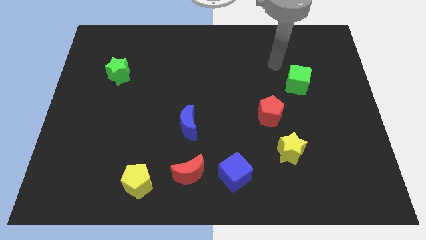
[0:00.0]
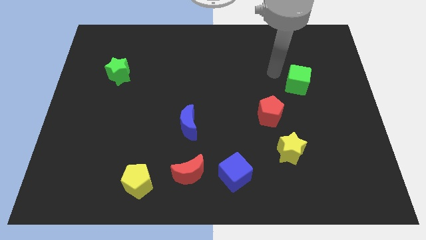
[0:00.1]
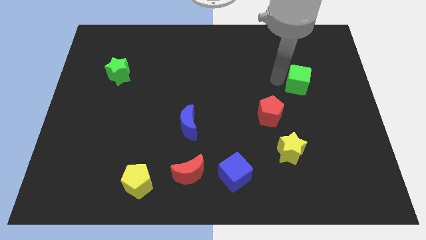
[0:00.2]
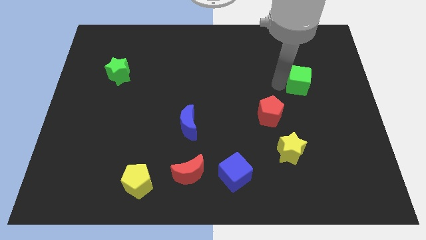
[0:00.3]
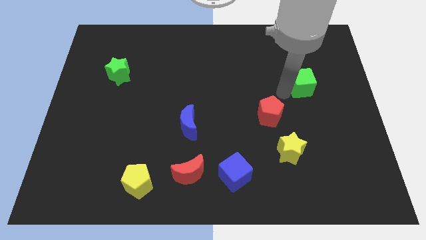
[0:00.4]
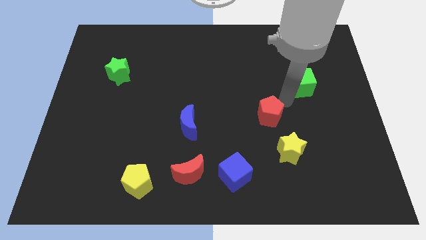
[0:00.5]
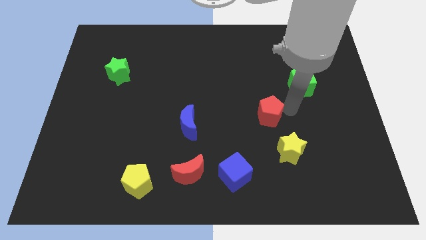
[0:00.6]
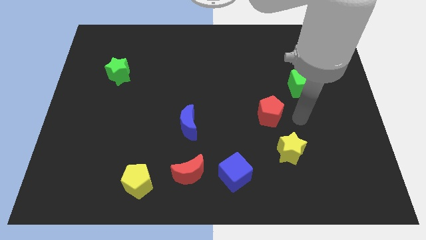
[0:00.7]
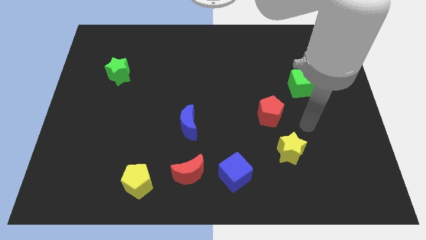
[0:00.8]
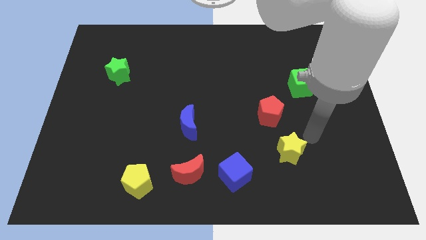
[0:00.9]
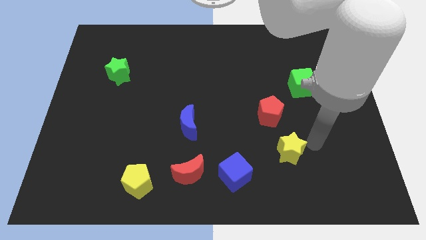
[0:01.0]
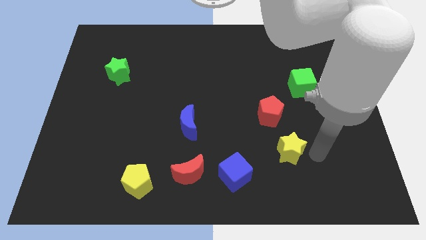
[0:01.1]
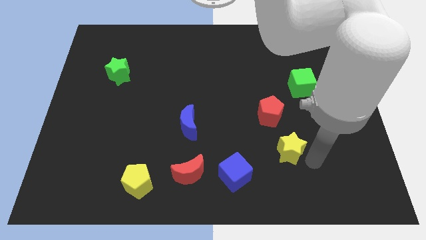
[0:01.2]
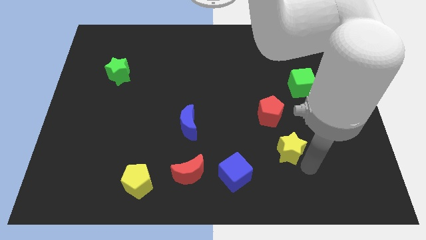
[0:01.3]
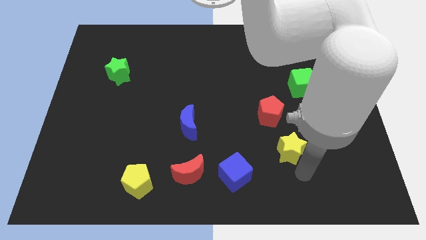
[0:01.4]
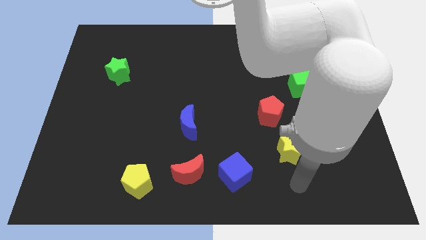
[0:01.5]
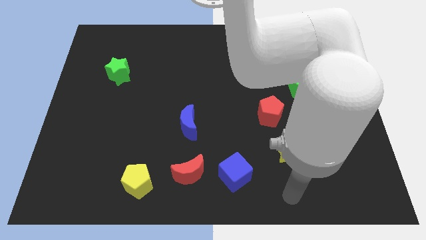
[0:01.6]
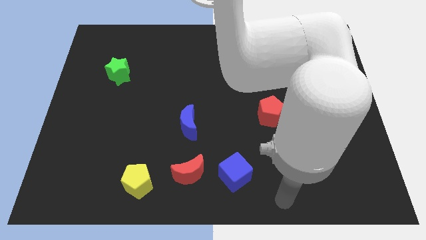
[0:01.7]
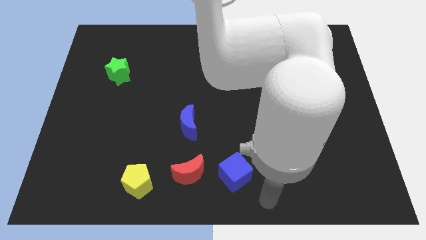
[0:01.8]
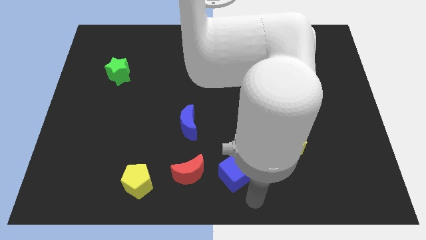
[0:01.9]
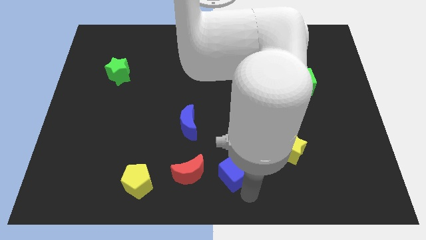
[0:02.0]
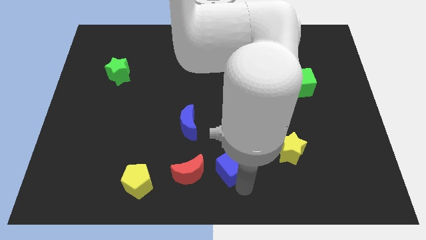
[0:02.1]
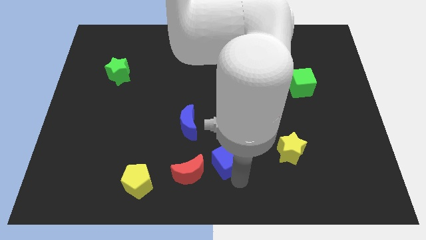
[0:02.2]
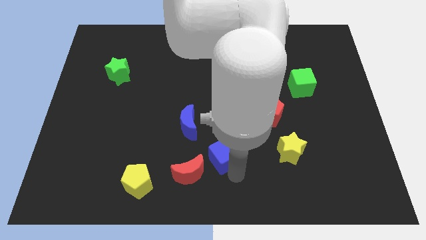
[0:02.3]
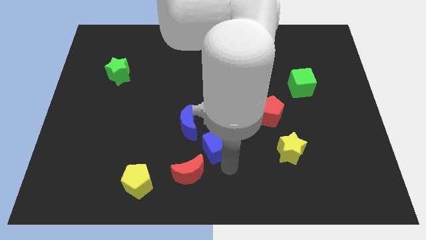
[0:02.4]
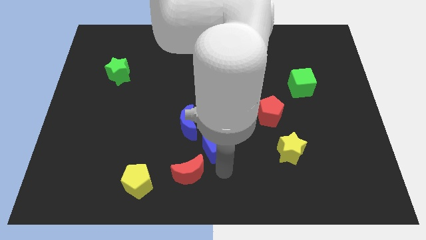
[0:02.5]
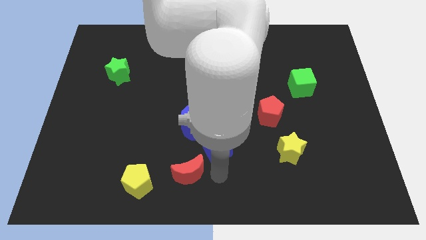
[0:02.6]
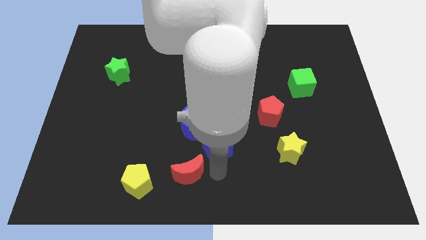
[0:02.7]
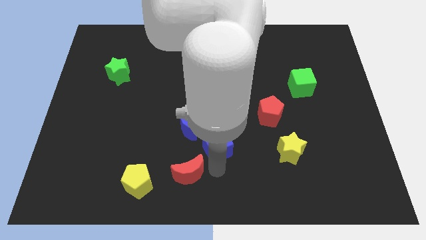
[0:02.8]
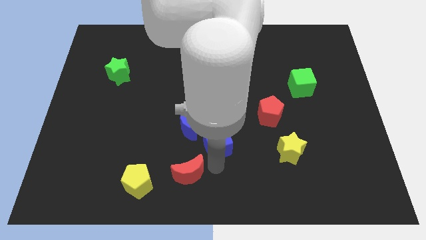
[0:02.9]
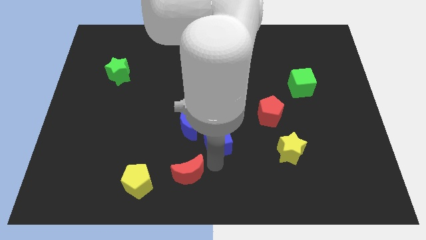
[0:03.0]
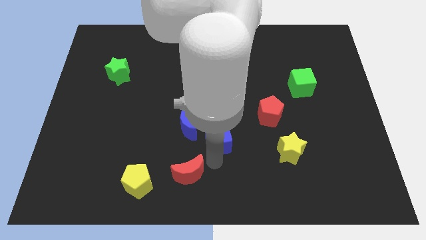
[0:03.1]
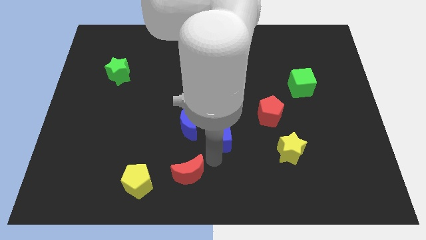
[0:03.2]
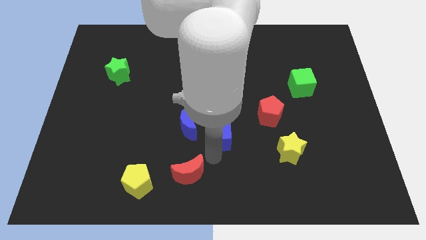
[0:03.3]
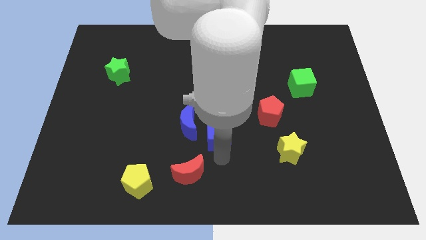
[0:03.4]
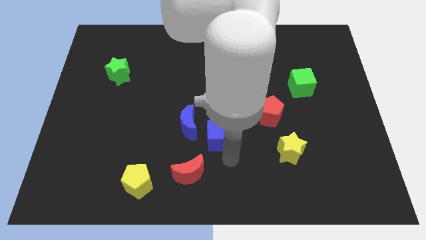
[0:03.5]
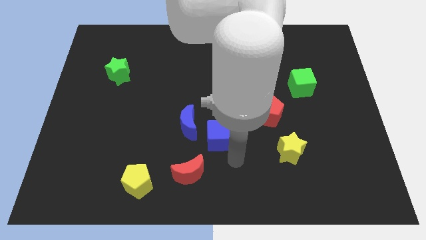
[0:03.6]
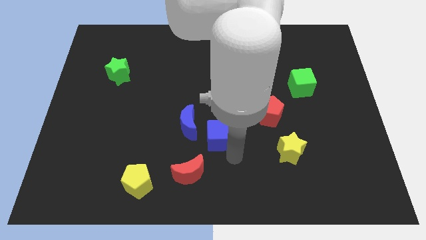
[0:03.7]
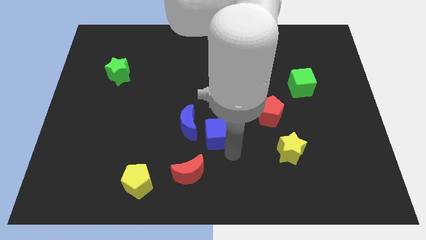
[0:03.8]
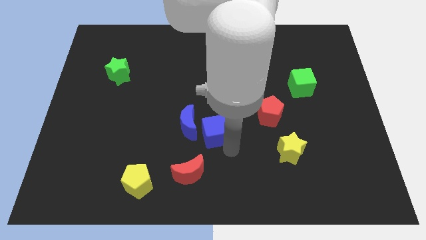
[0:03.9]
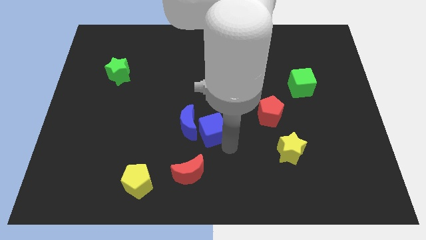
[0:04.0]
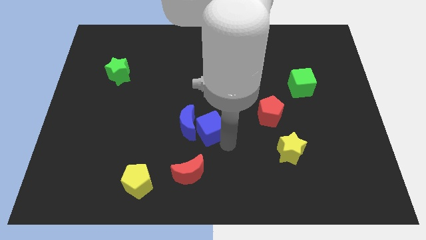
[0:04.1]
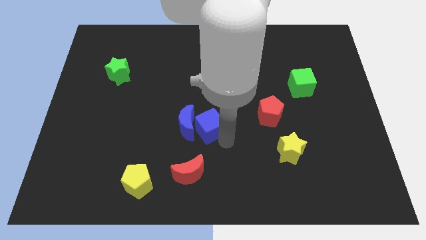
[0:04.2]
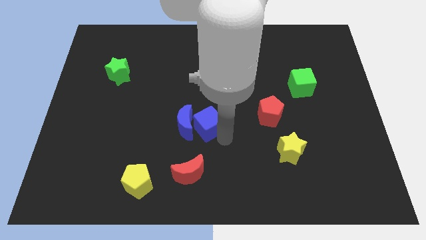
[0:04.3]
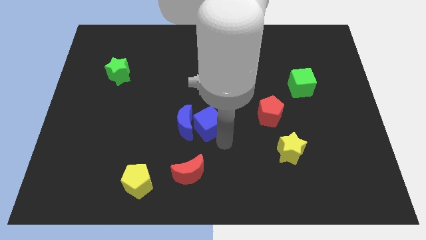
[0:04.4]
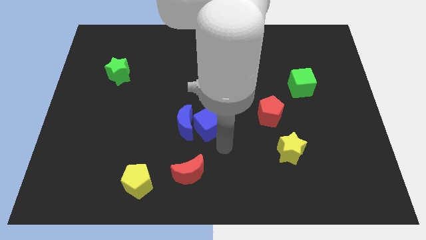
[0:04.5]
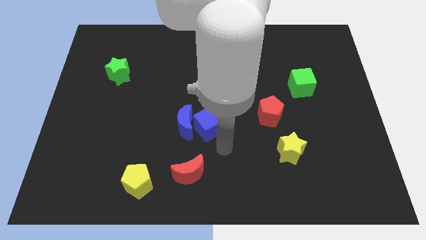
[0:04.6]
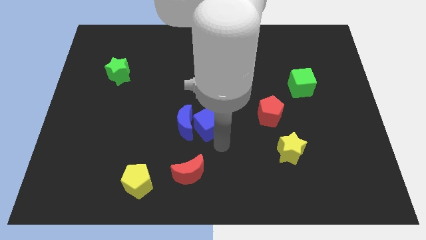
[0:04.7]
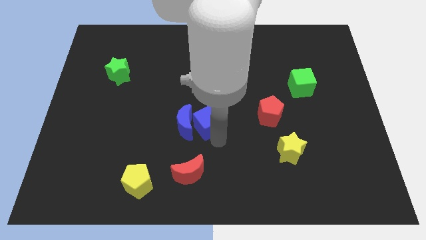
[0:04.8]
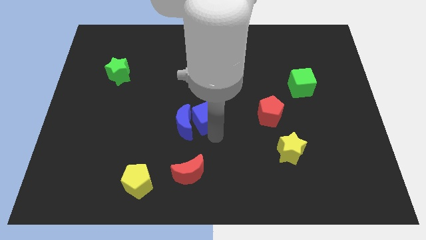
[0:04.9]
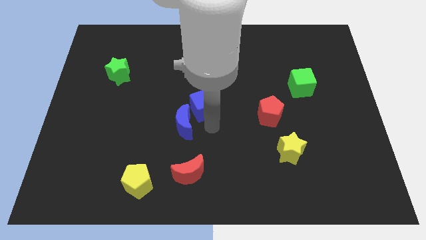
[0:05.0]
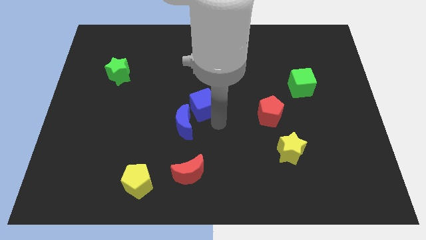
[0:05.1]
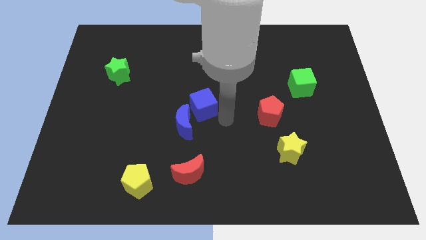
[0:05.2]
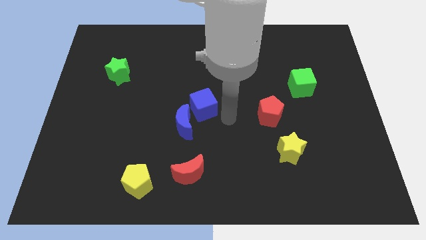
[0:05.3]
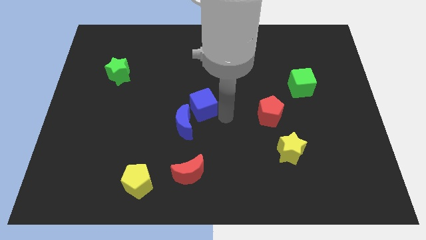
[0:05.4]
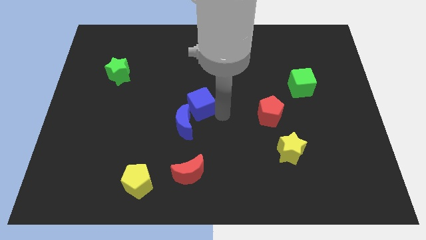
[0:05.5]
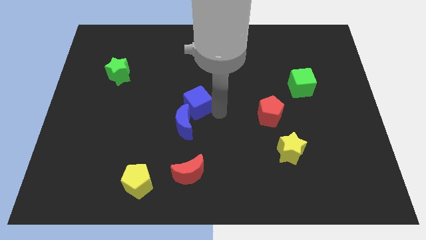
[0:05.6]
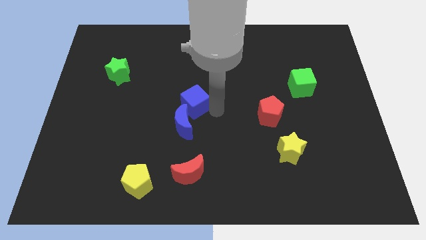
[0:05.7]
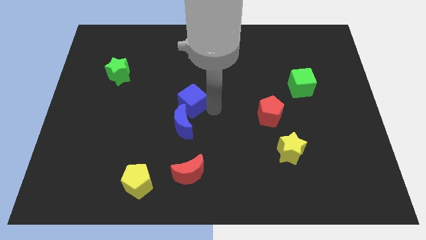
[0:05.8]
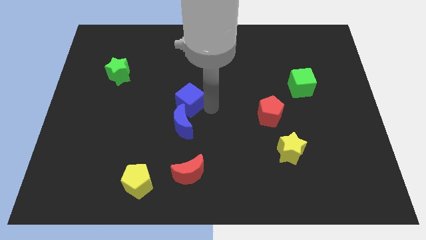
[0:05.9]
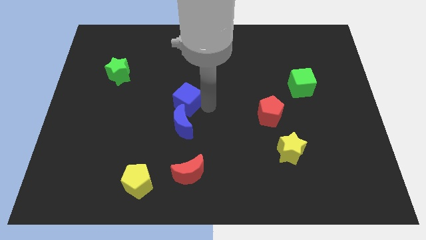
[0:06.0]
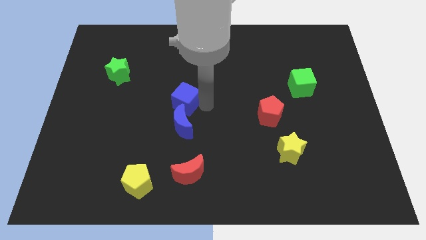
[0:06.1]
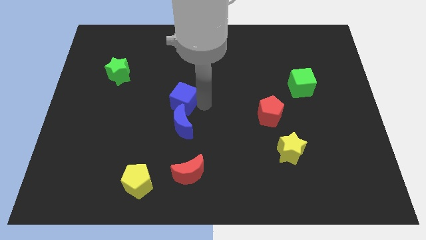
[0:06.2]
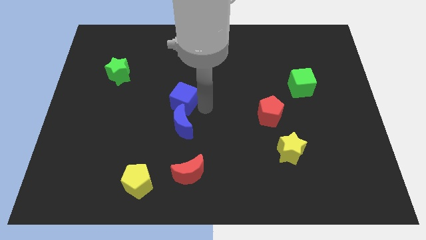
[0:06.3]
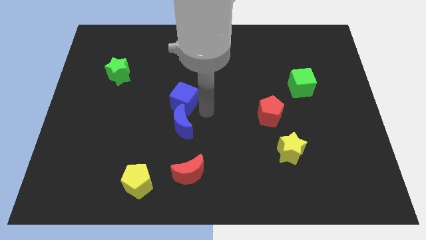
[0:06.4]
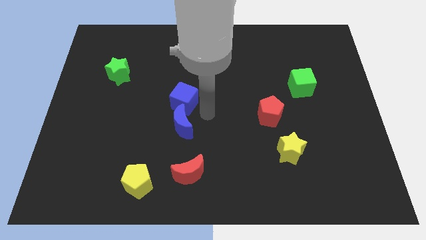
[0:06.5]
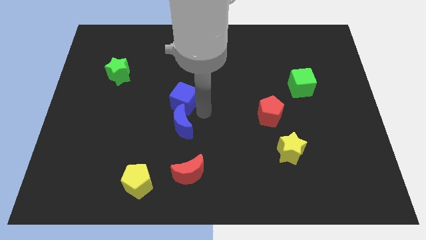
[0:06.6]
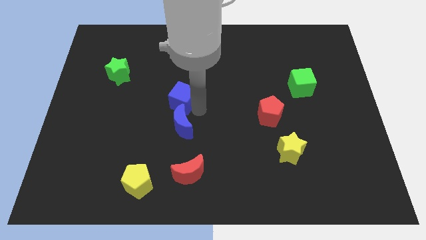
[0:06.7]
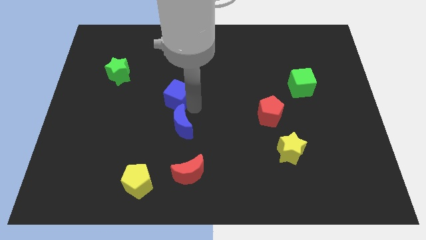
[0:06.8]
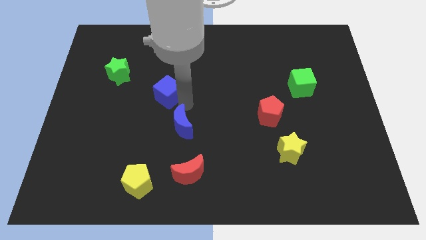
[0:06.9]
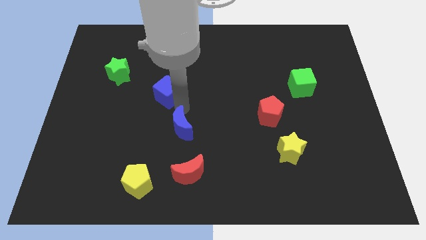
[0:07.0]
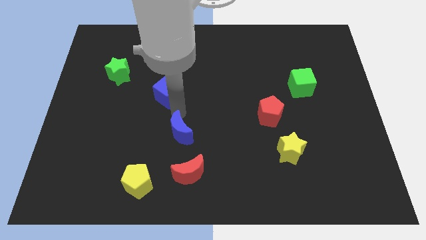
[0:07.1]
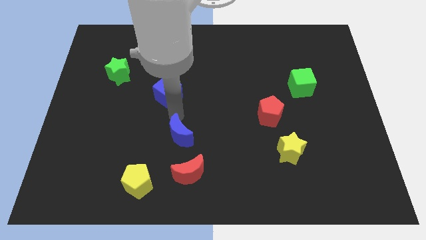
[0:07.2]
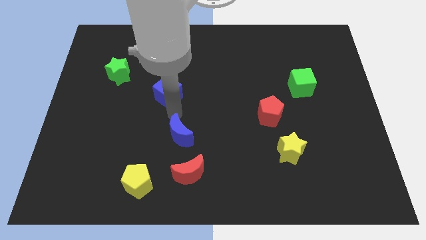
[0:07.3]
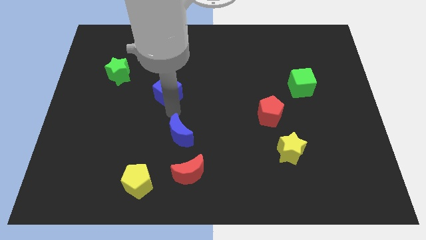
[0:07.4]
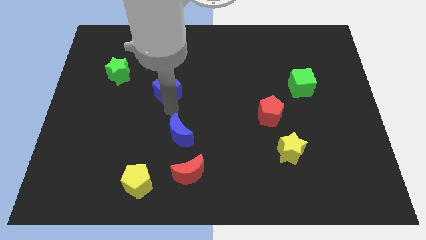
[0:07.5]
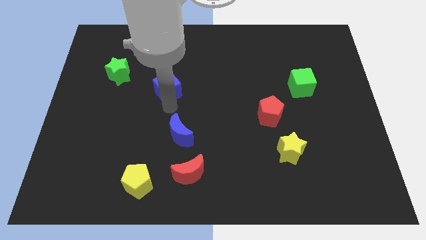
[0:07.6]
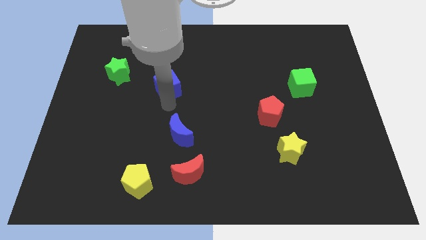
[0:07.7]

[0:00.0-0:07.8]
push the blue cube just right of the green star
